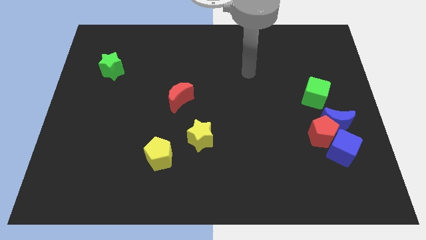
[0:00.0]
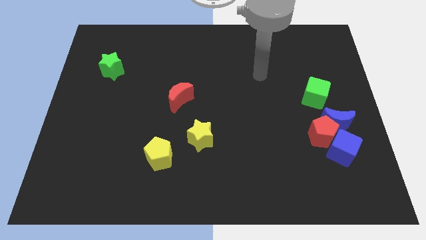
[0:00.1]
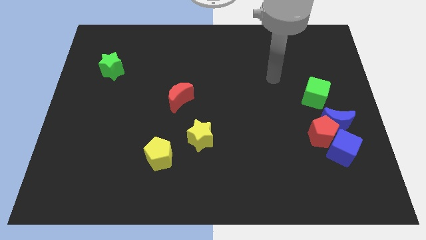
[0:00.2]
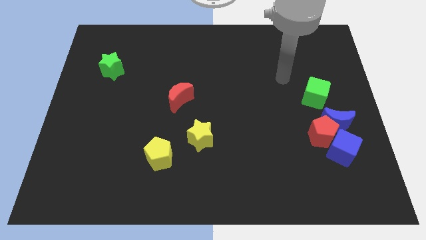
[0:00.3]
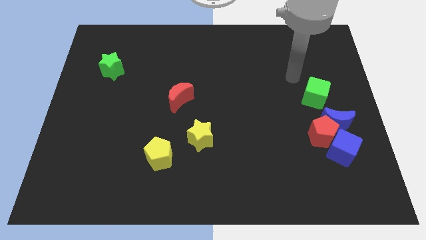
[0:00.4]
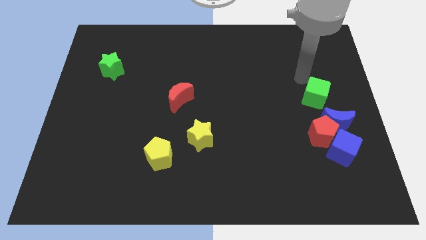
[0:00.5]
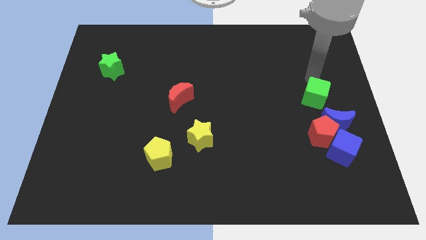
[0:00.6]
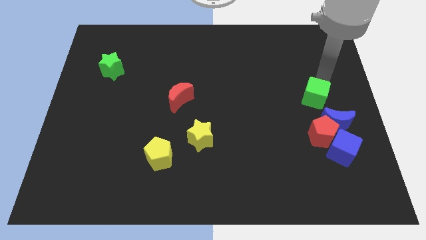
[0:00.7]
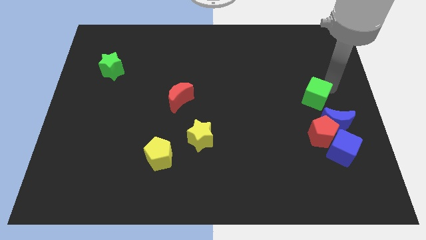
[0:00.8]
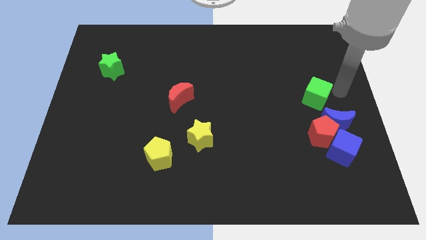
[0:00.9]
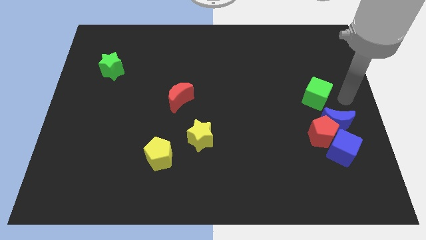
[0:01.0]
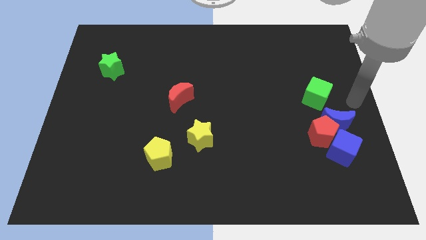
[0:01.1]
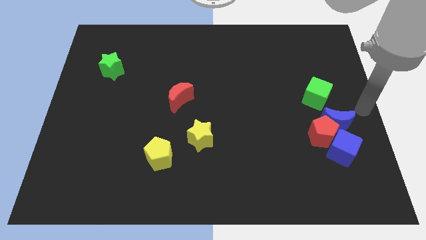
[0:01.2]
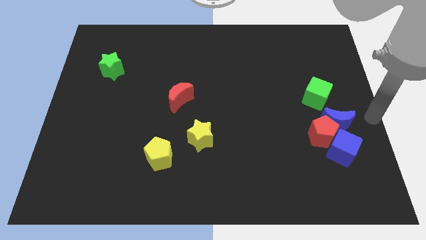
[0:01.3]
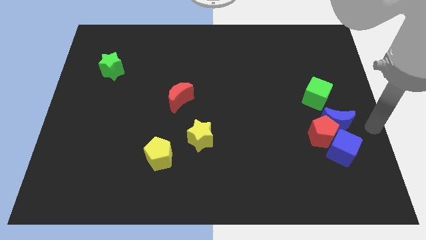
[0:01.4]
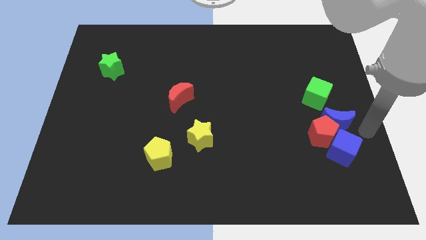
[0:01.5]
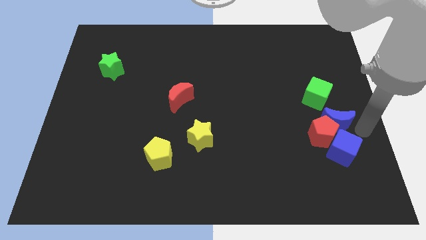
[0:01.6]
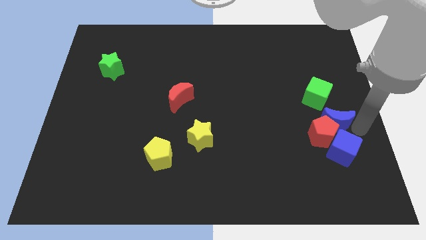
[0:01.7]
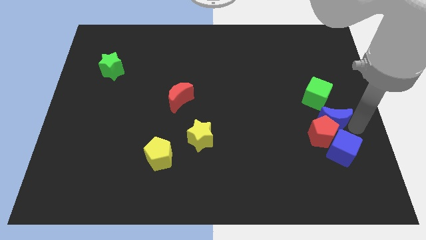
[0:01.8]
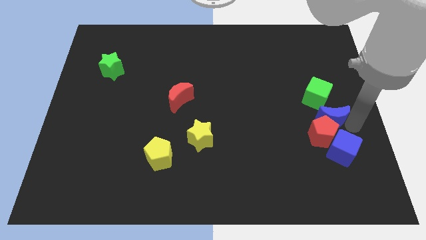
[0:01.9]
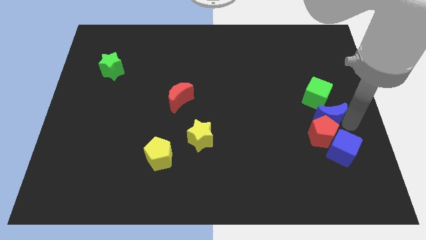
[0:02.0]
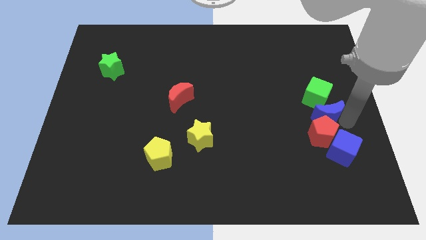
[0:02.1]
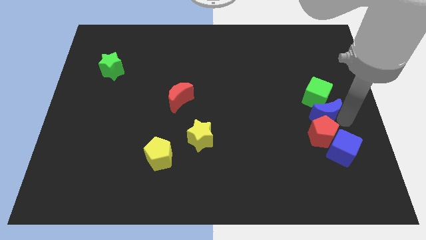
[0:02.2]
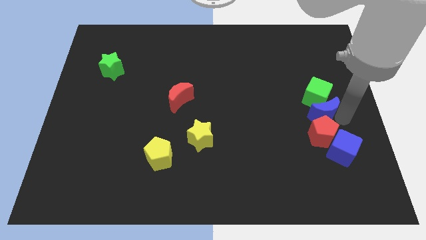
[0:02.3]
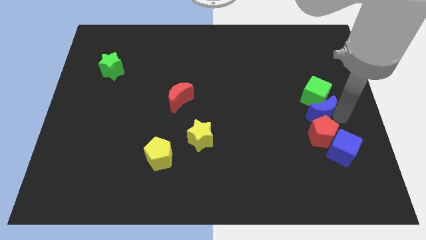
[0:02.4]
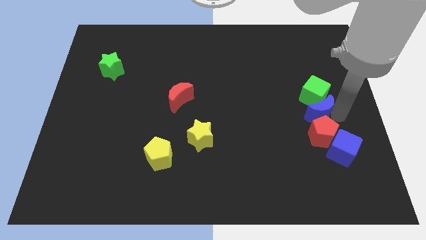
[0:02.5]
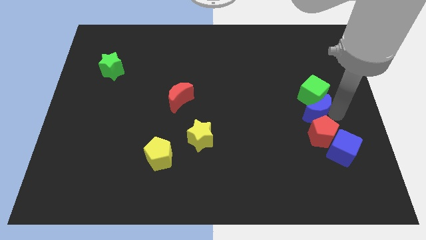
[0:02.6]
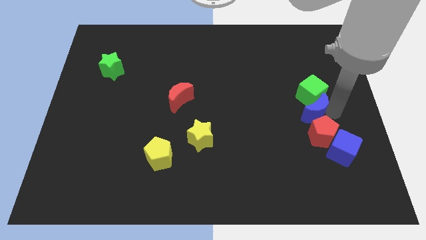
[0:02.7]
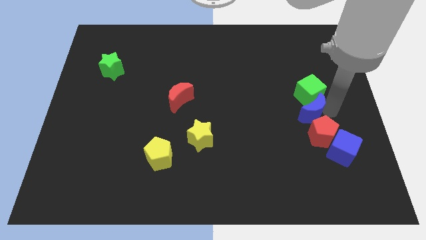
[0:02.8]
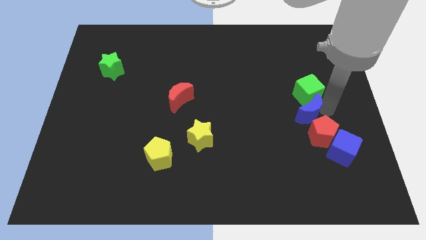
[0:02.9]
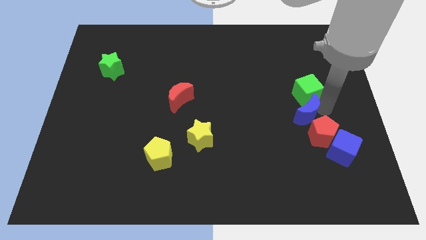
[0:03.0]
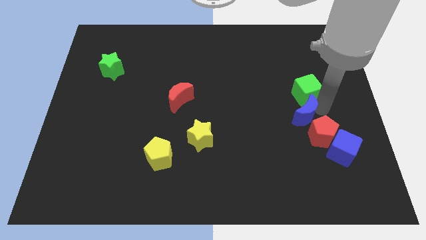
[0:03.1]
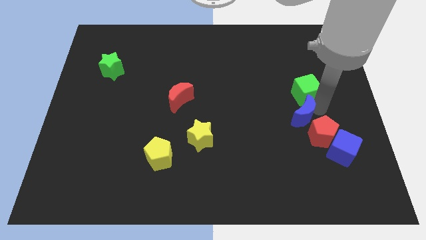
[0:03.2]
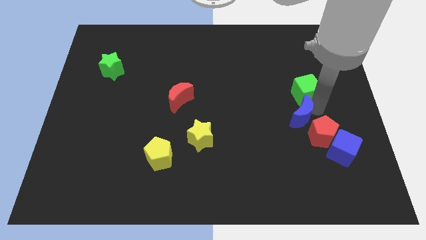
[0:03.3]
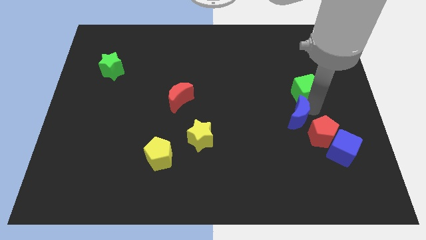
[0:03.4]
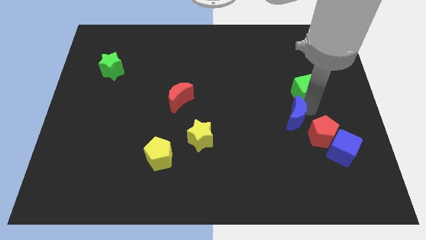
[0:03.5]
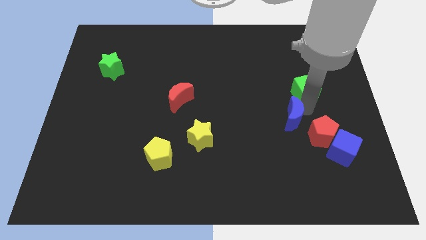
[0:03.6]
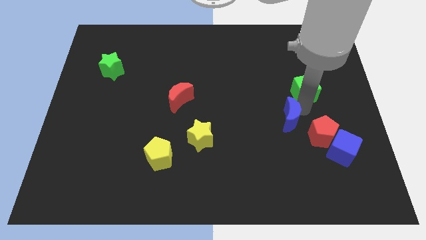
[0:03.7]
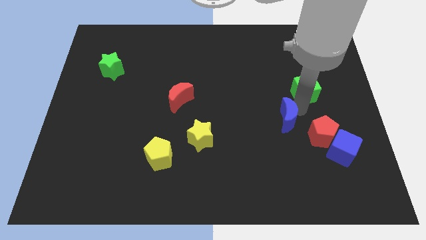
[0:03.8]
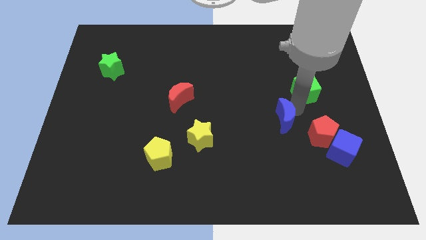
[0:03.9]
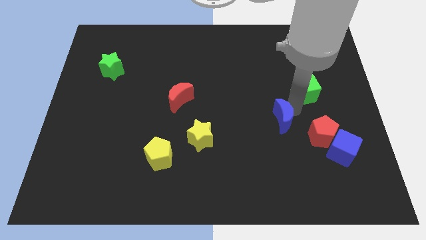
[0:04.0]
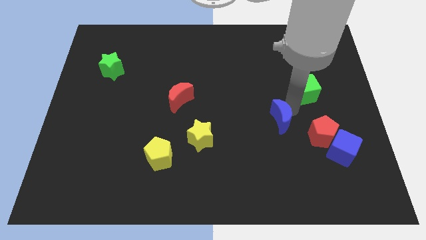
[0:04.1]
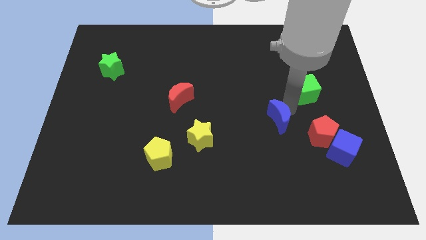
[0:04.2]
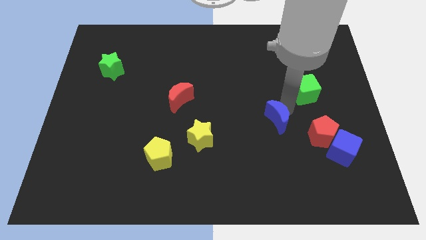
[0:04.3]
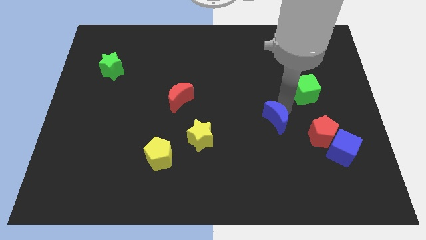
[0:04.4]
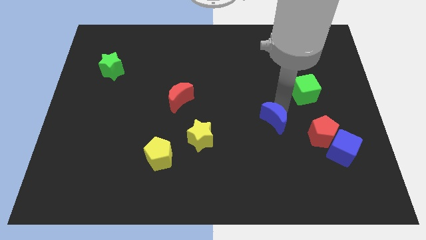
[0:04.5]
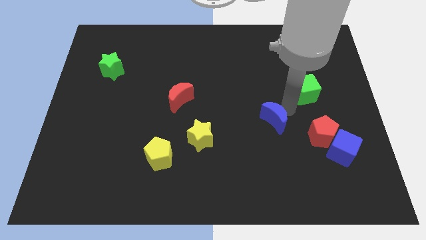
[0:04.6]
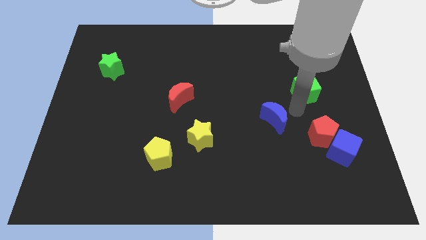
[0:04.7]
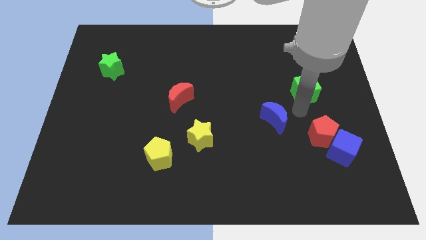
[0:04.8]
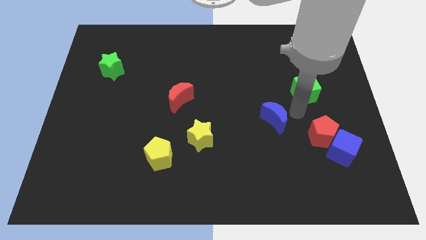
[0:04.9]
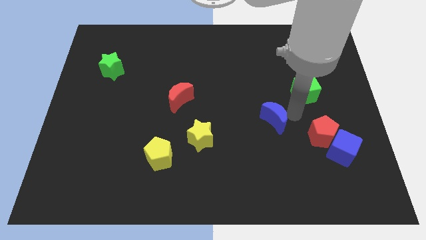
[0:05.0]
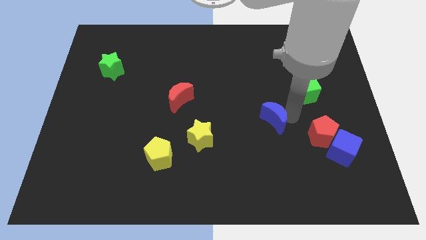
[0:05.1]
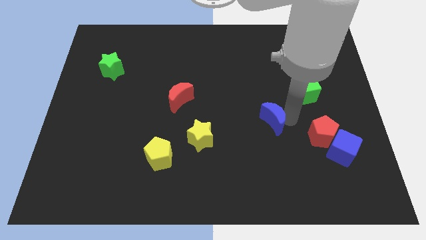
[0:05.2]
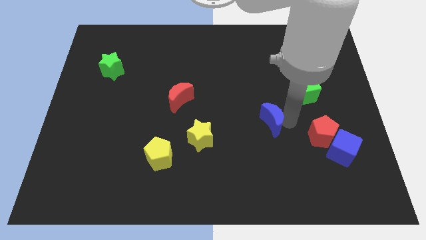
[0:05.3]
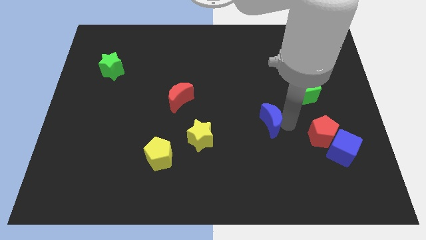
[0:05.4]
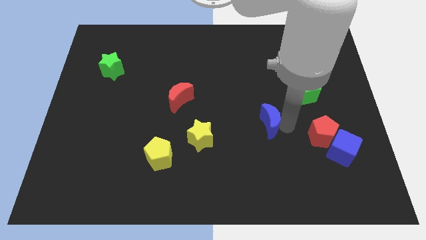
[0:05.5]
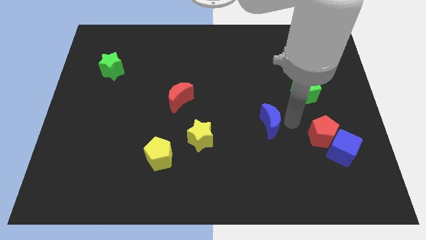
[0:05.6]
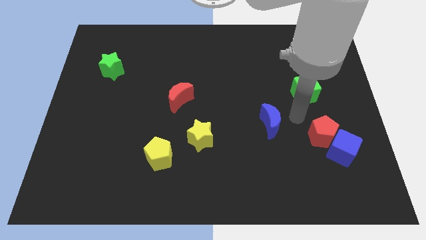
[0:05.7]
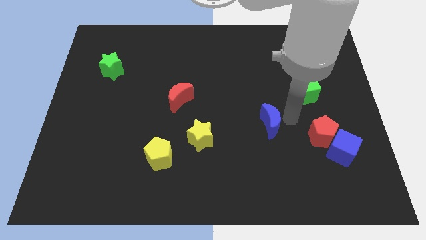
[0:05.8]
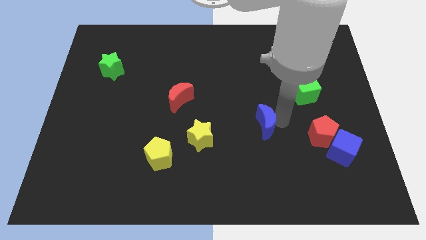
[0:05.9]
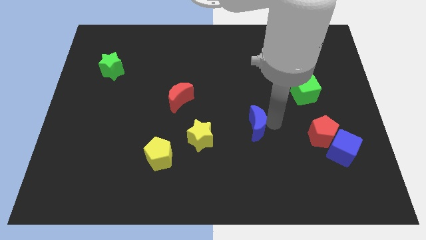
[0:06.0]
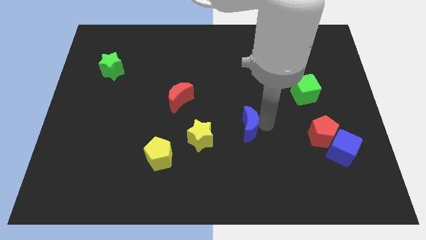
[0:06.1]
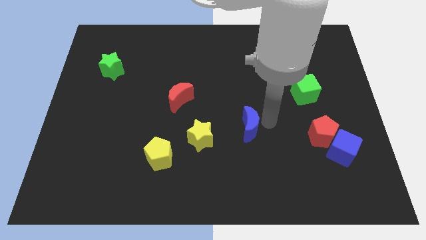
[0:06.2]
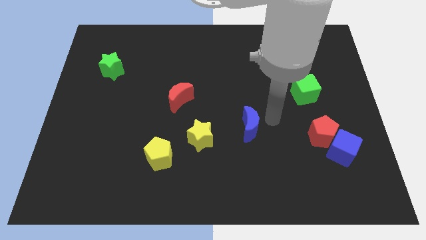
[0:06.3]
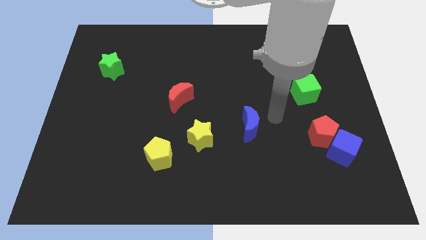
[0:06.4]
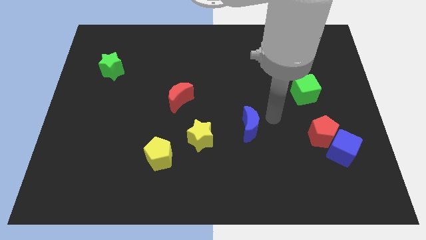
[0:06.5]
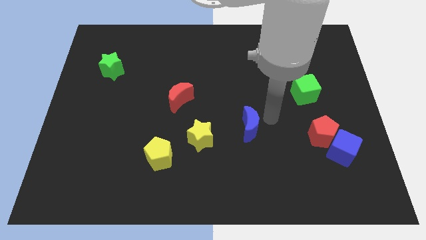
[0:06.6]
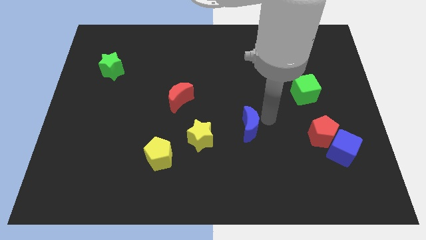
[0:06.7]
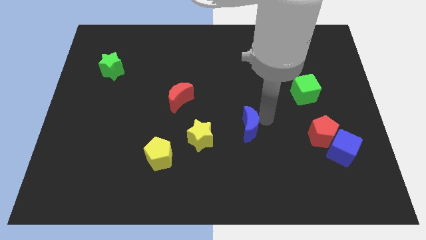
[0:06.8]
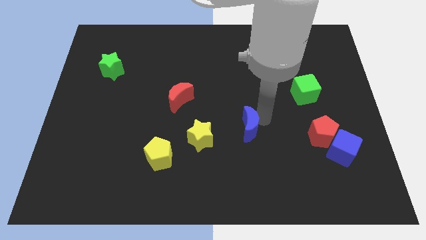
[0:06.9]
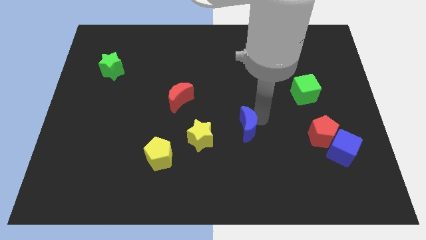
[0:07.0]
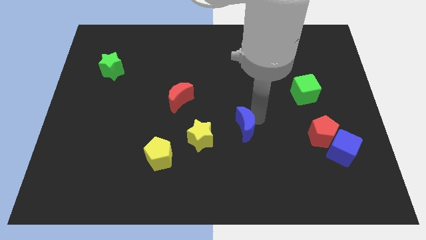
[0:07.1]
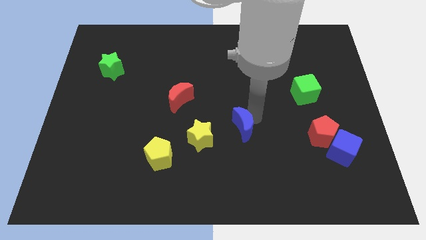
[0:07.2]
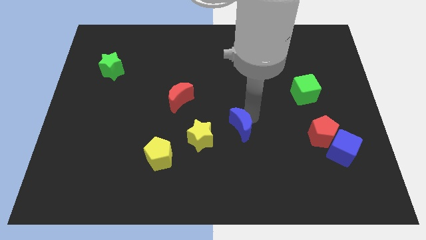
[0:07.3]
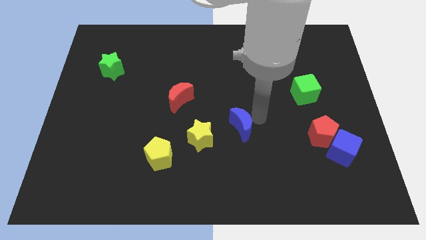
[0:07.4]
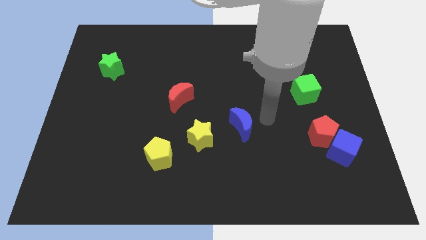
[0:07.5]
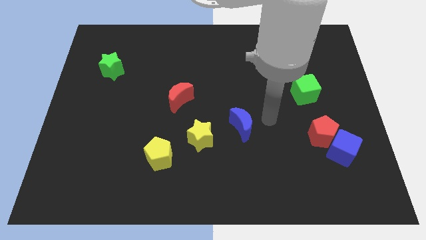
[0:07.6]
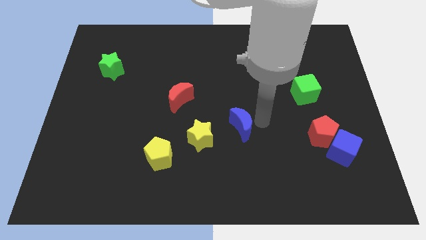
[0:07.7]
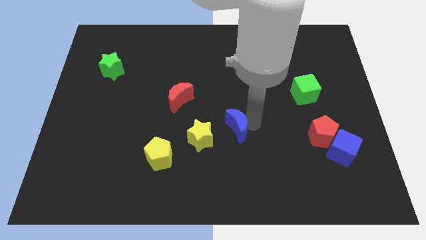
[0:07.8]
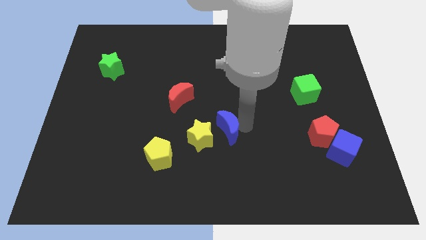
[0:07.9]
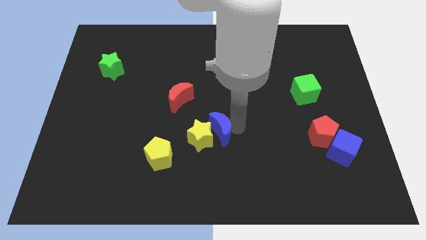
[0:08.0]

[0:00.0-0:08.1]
slide the blue moon to the yellow star
